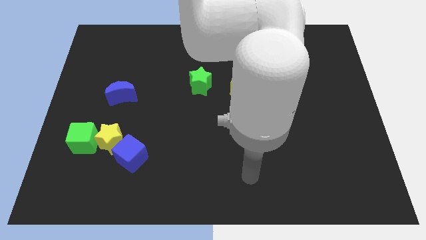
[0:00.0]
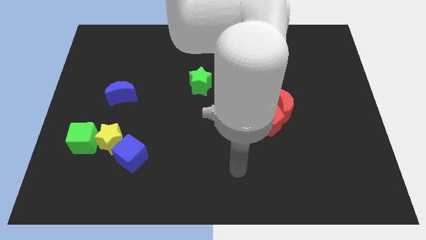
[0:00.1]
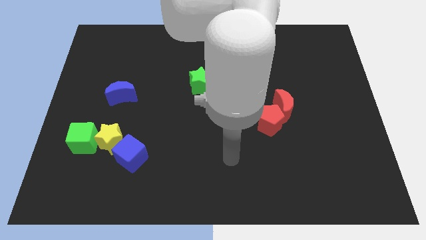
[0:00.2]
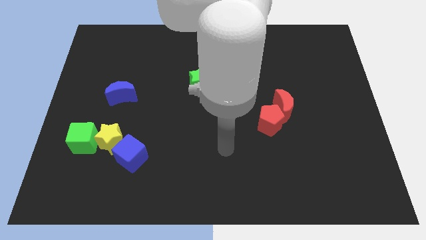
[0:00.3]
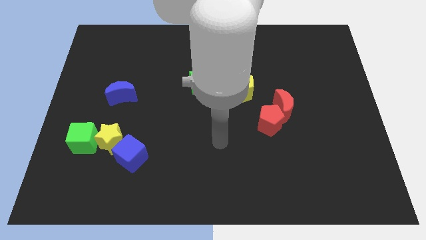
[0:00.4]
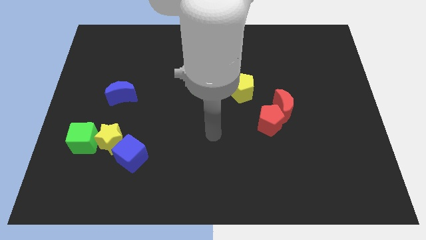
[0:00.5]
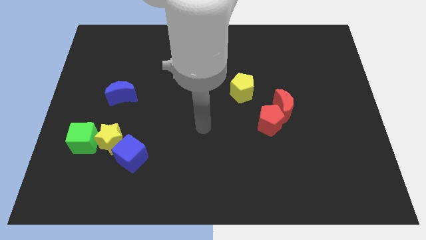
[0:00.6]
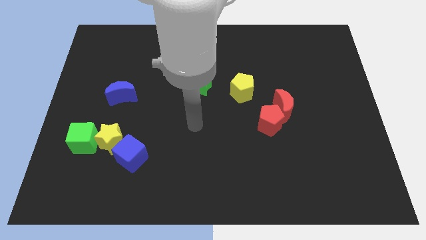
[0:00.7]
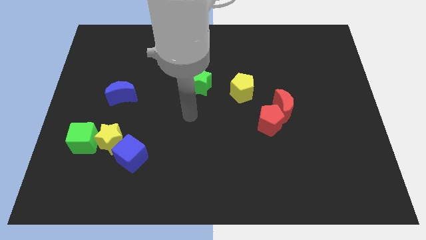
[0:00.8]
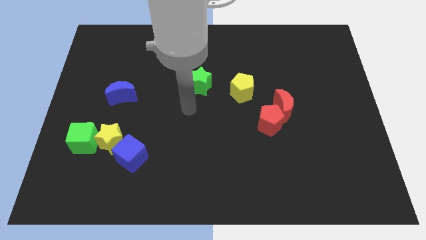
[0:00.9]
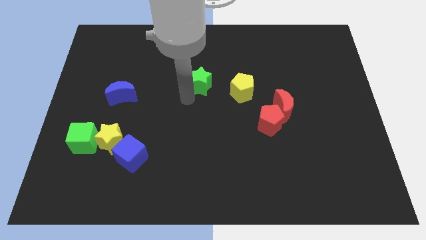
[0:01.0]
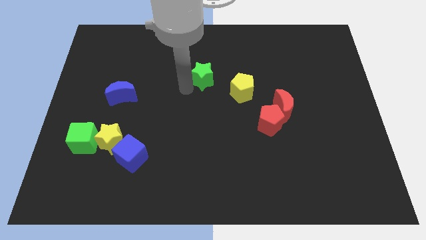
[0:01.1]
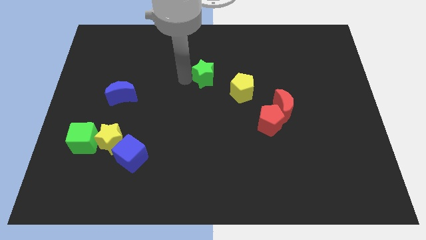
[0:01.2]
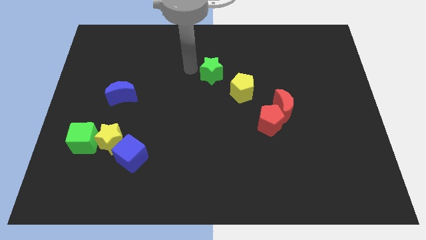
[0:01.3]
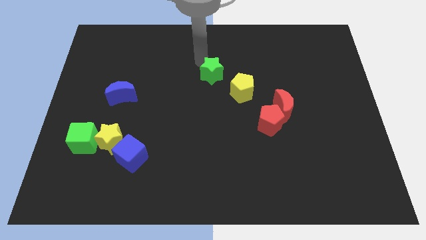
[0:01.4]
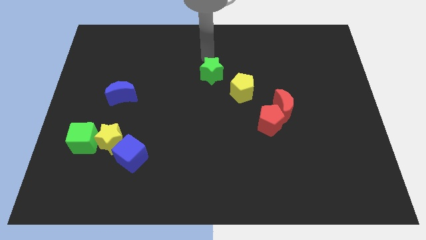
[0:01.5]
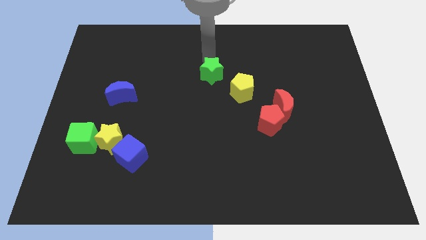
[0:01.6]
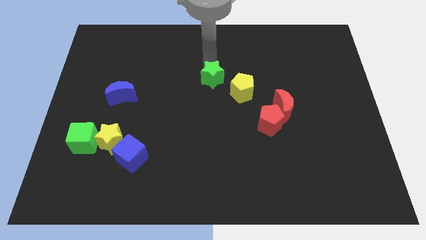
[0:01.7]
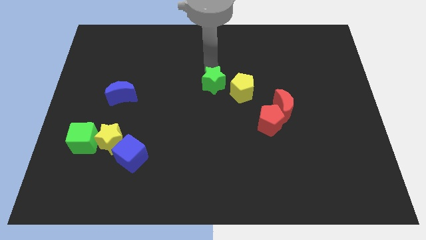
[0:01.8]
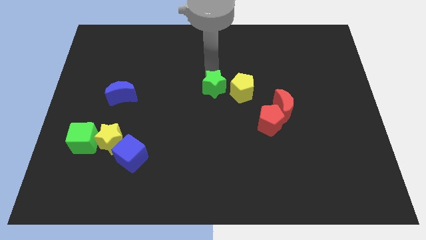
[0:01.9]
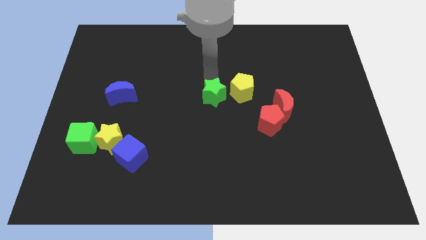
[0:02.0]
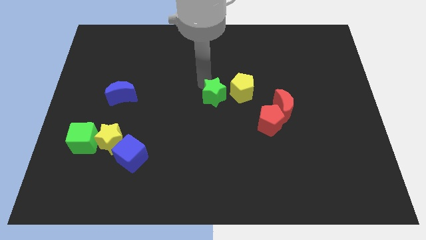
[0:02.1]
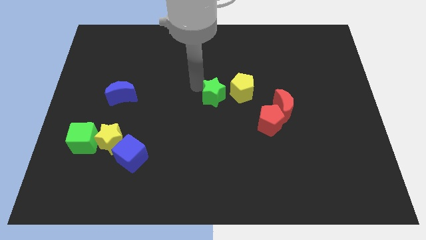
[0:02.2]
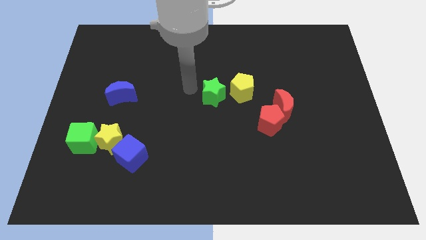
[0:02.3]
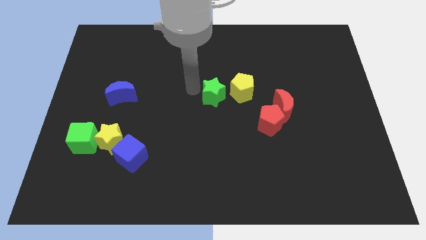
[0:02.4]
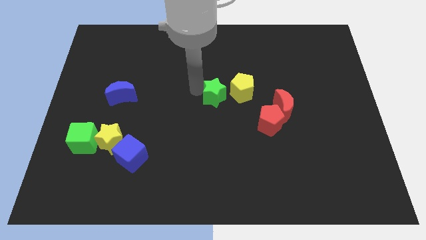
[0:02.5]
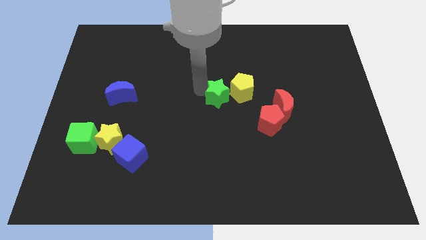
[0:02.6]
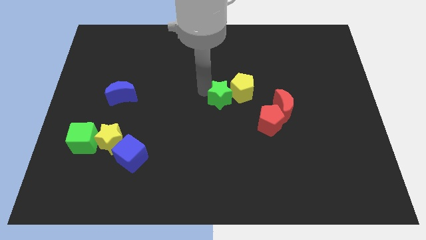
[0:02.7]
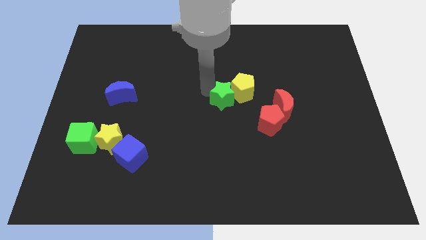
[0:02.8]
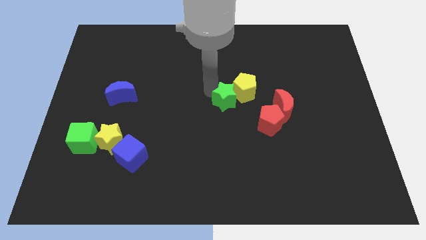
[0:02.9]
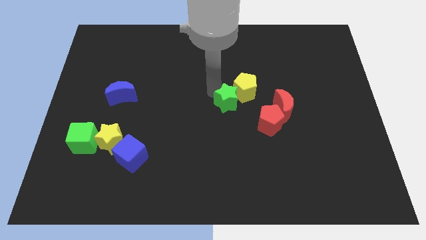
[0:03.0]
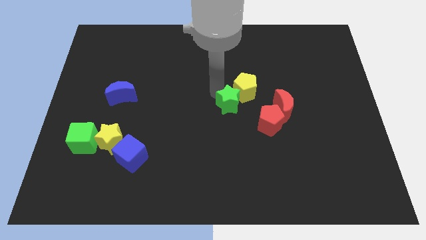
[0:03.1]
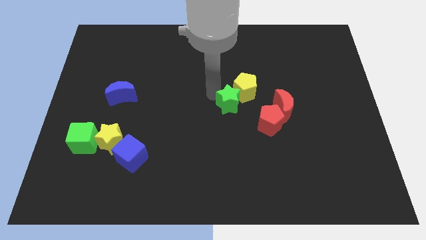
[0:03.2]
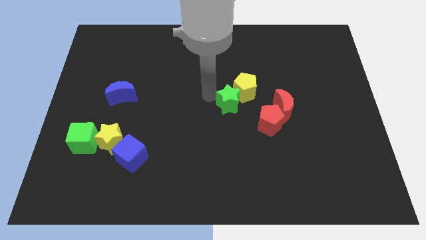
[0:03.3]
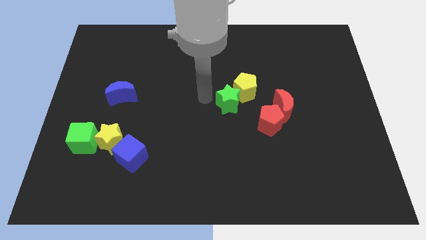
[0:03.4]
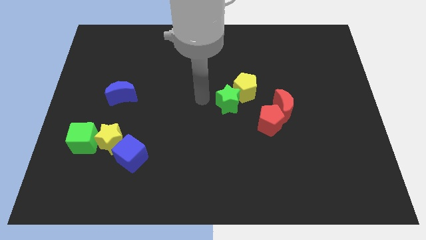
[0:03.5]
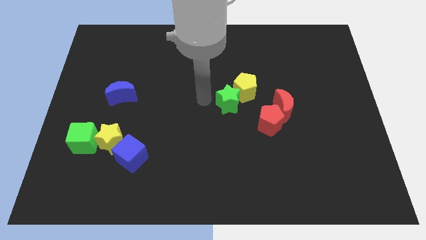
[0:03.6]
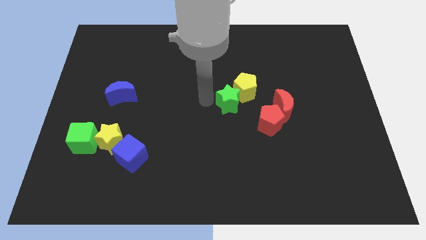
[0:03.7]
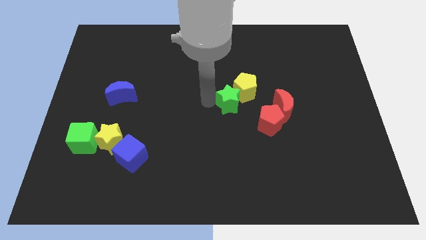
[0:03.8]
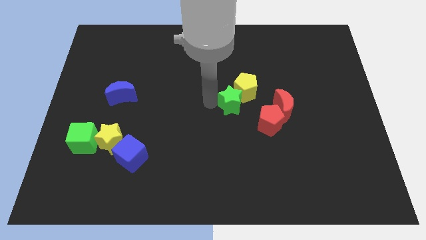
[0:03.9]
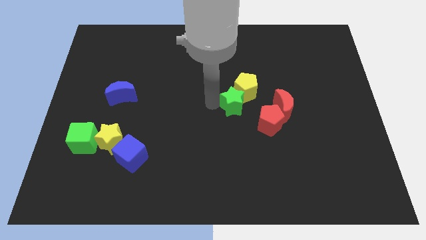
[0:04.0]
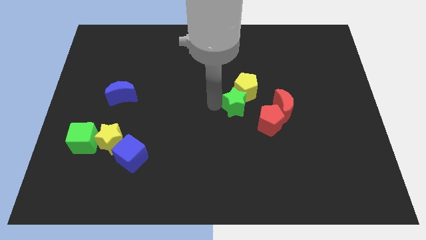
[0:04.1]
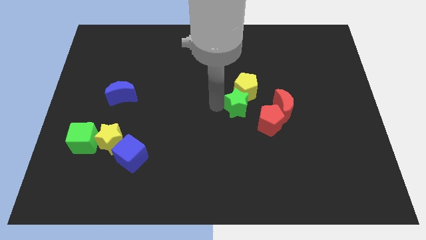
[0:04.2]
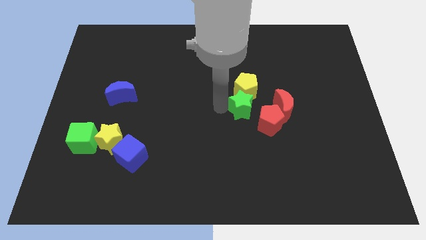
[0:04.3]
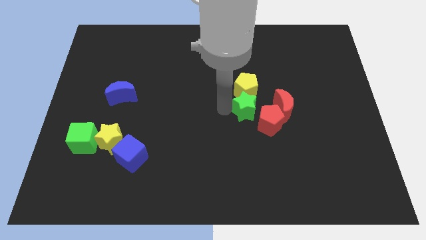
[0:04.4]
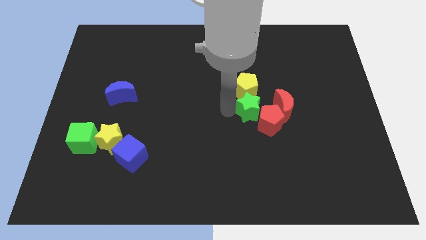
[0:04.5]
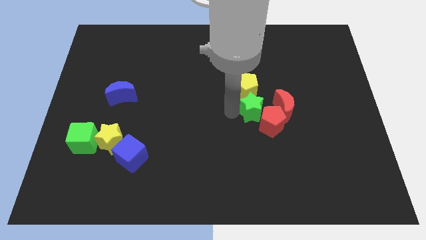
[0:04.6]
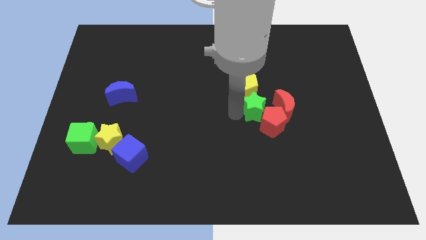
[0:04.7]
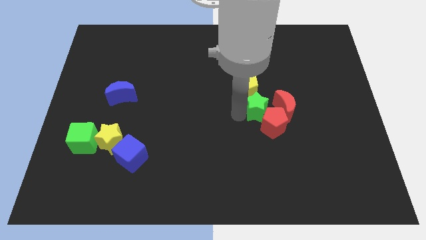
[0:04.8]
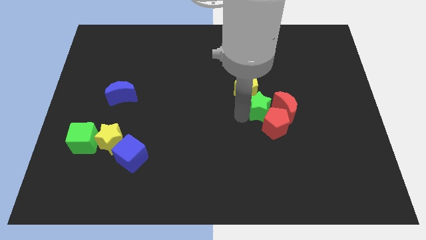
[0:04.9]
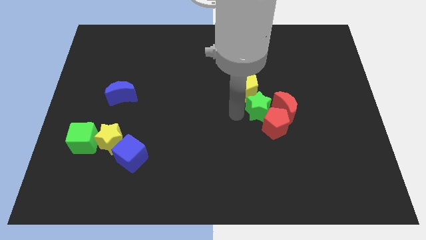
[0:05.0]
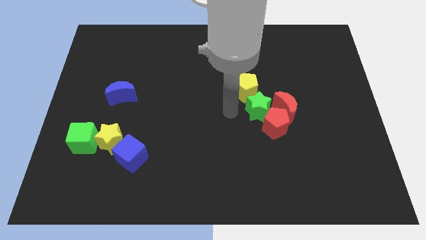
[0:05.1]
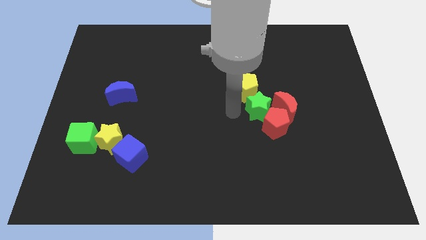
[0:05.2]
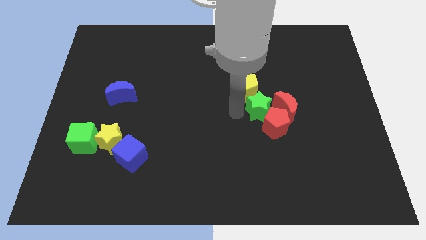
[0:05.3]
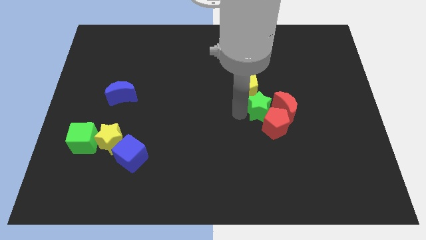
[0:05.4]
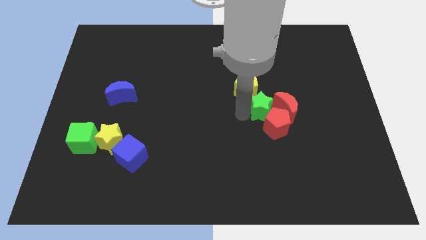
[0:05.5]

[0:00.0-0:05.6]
push the green star close to the red moon

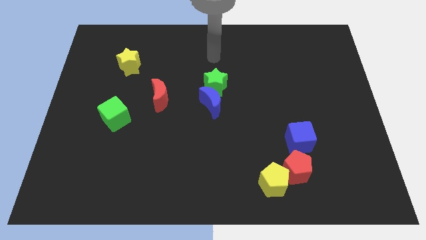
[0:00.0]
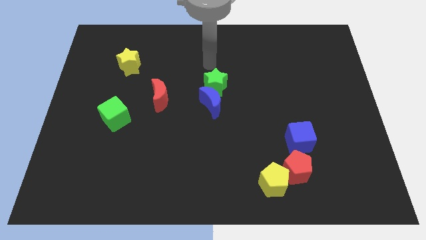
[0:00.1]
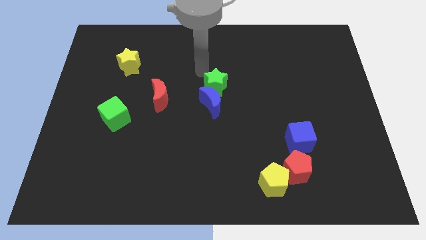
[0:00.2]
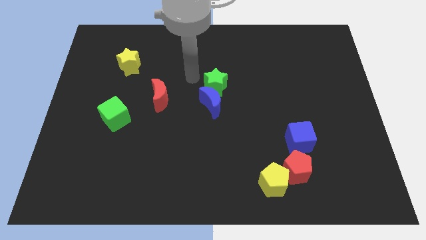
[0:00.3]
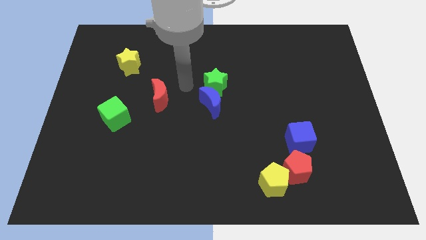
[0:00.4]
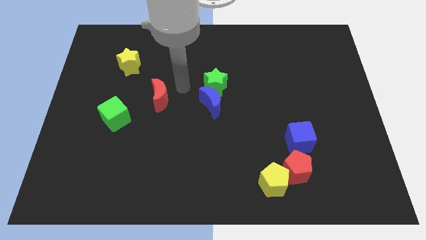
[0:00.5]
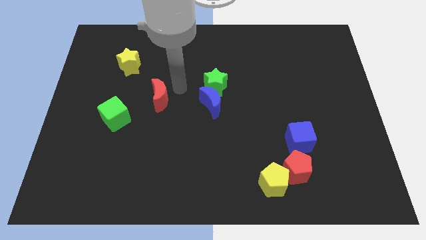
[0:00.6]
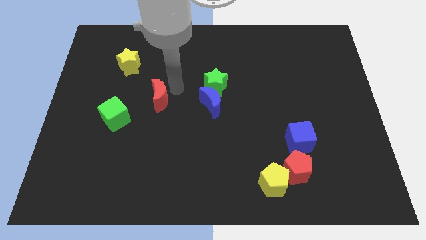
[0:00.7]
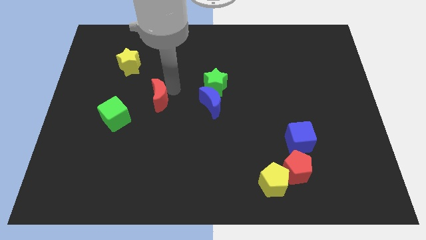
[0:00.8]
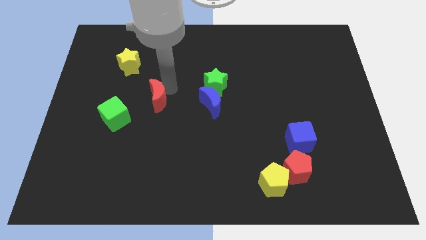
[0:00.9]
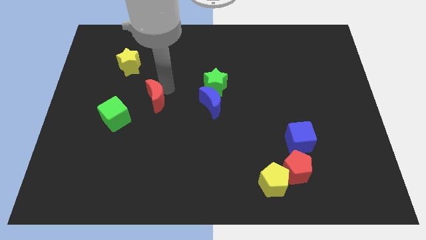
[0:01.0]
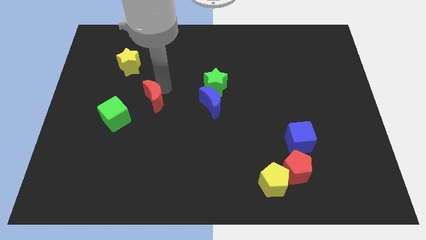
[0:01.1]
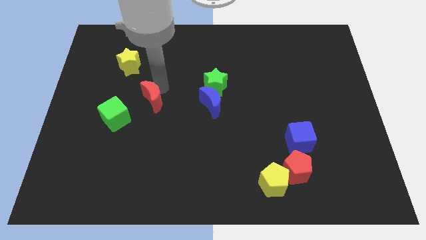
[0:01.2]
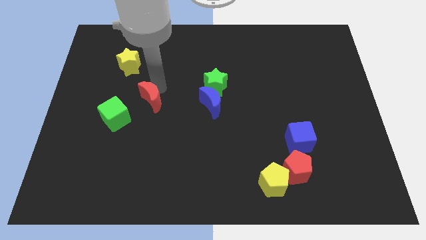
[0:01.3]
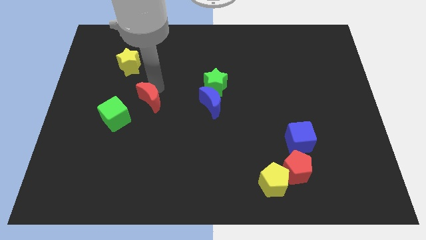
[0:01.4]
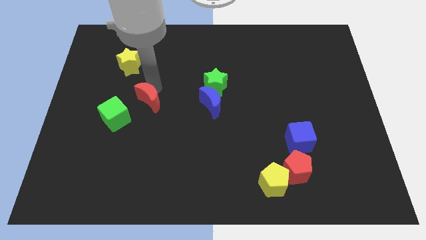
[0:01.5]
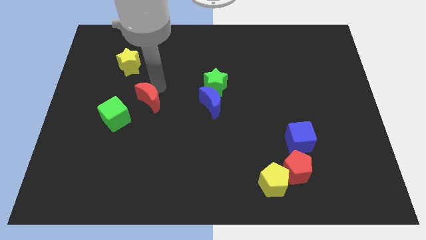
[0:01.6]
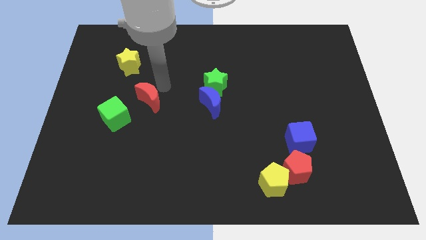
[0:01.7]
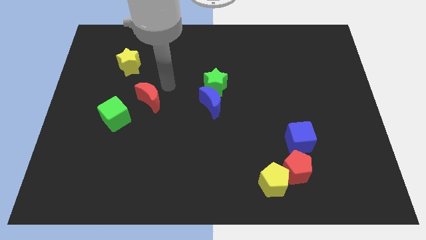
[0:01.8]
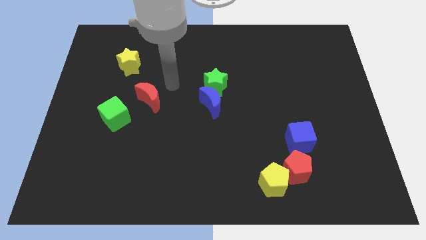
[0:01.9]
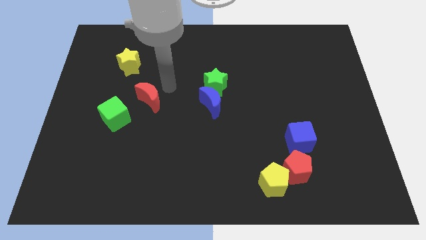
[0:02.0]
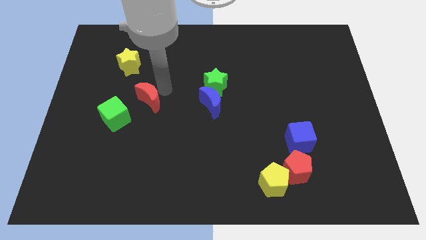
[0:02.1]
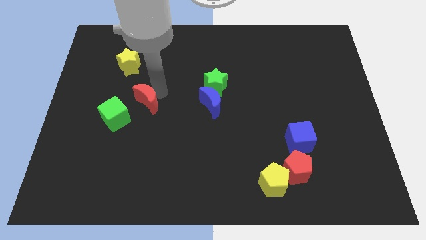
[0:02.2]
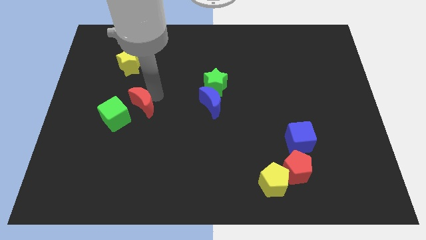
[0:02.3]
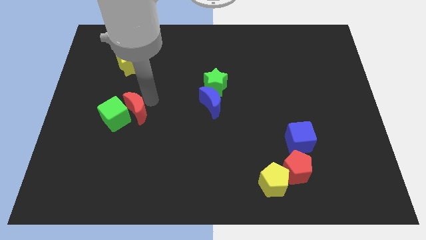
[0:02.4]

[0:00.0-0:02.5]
put the red moon towards the green cube
